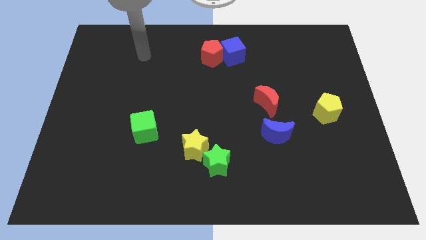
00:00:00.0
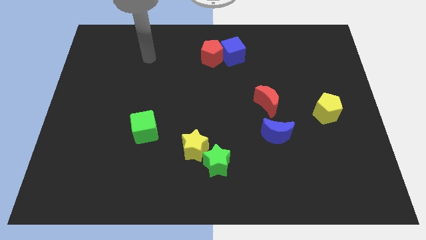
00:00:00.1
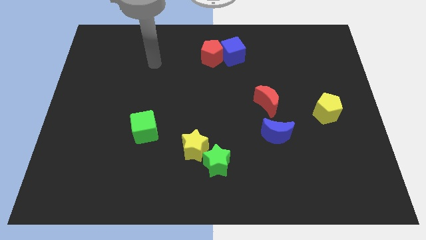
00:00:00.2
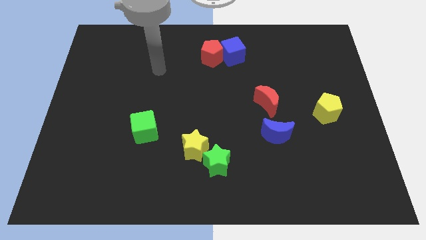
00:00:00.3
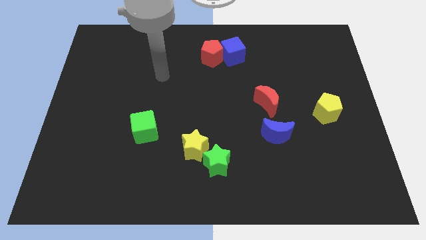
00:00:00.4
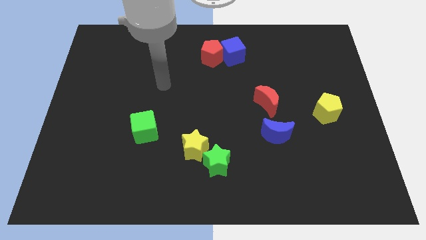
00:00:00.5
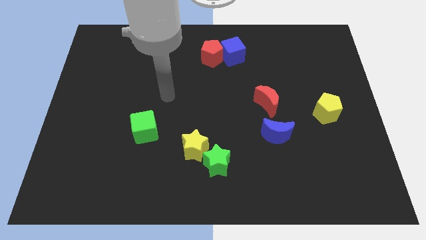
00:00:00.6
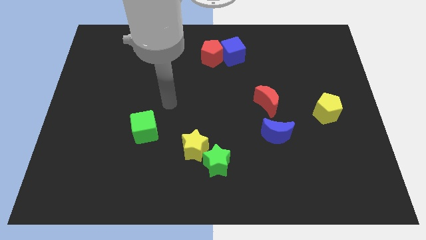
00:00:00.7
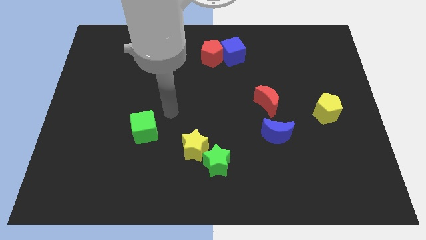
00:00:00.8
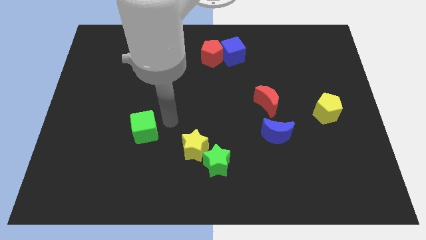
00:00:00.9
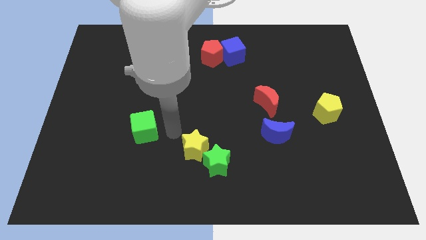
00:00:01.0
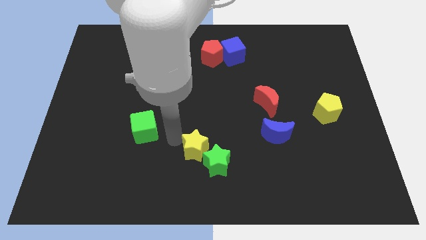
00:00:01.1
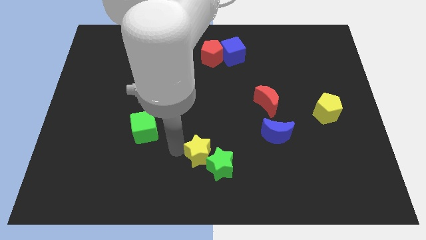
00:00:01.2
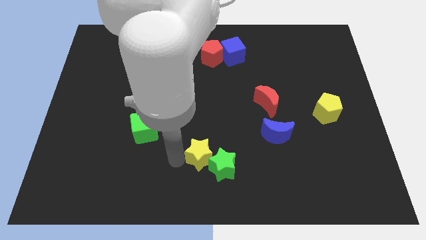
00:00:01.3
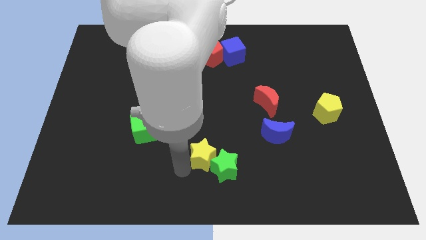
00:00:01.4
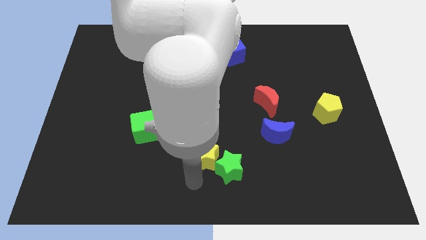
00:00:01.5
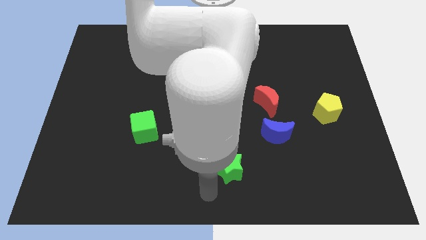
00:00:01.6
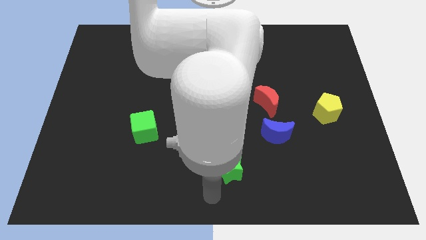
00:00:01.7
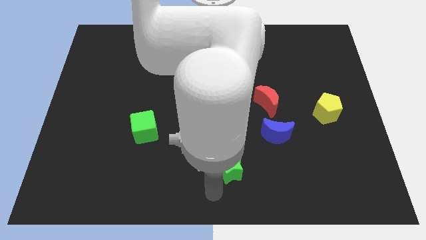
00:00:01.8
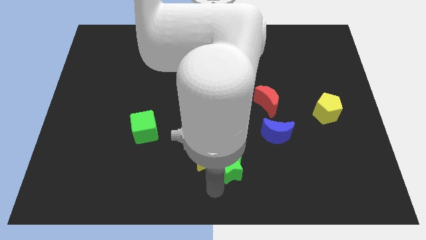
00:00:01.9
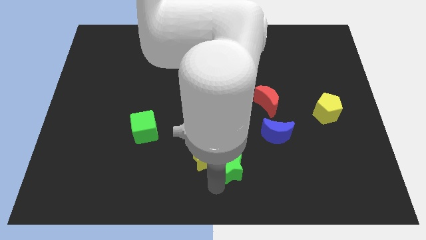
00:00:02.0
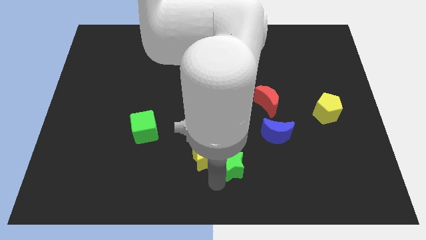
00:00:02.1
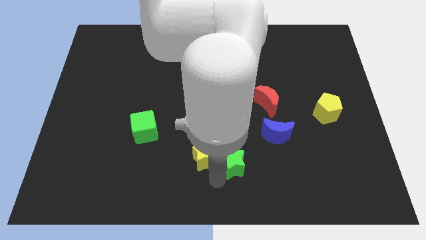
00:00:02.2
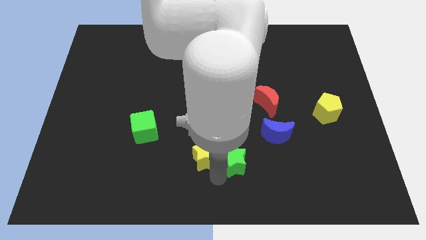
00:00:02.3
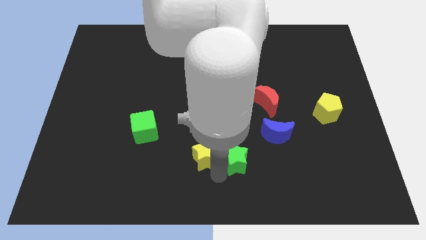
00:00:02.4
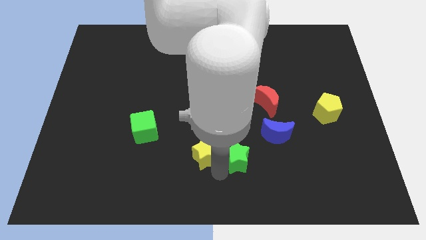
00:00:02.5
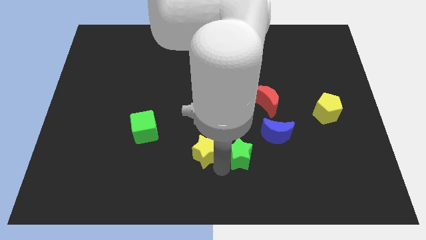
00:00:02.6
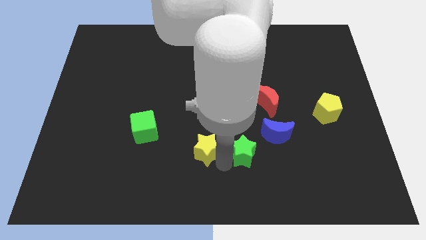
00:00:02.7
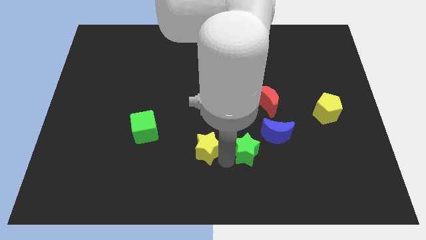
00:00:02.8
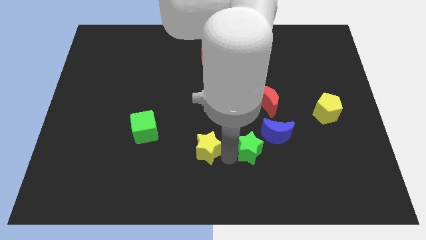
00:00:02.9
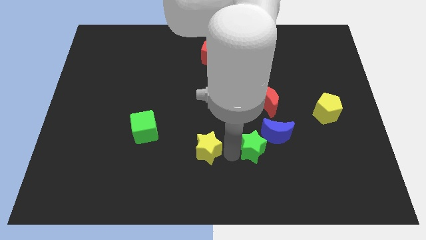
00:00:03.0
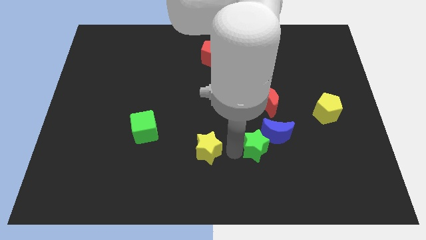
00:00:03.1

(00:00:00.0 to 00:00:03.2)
slide the green star to the blue moon

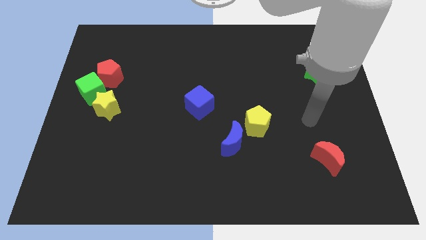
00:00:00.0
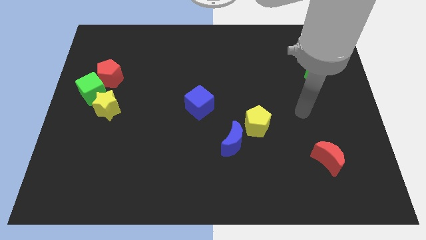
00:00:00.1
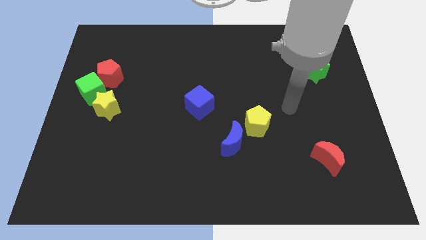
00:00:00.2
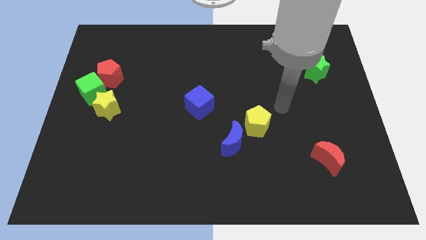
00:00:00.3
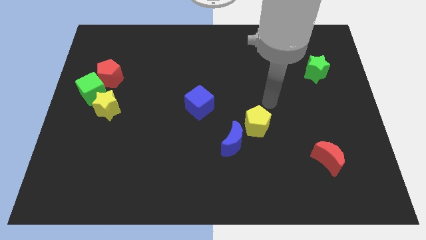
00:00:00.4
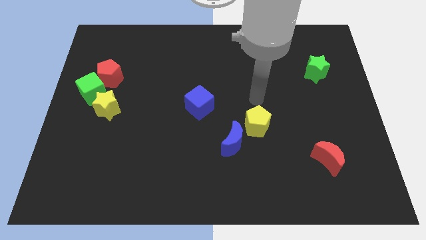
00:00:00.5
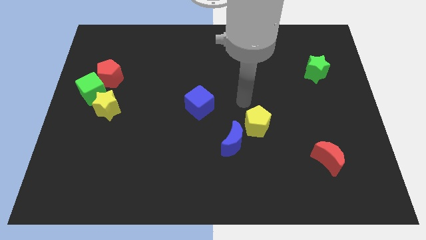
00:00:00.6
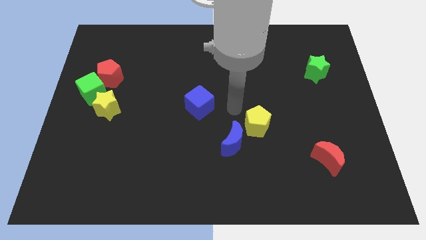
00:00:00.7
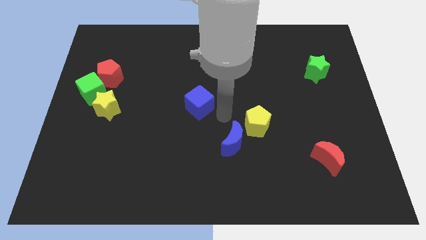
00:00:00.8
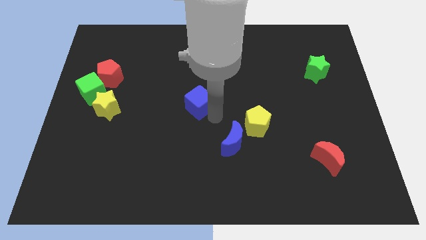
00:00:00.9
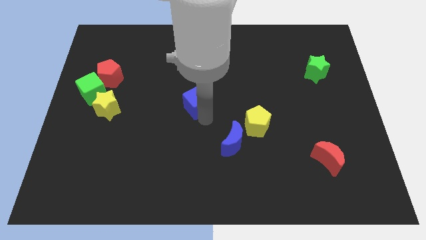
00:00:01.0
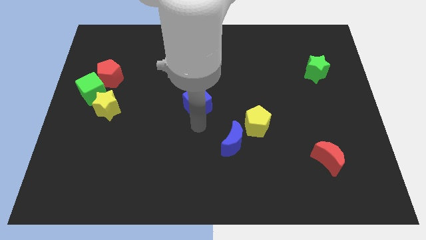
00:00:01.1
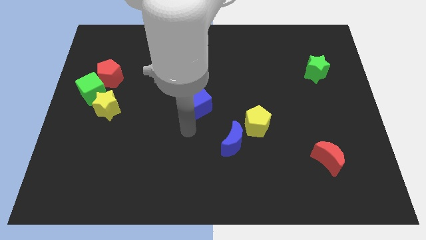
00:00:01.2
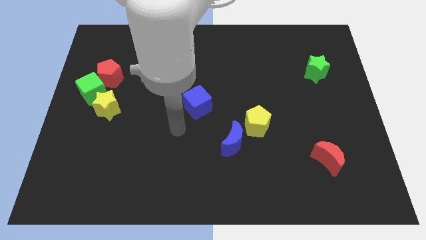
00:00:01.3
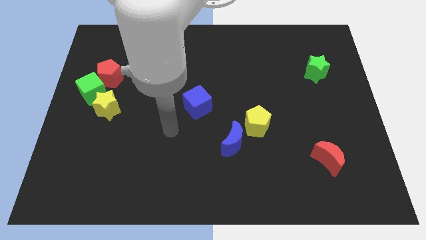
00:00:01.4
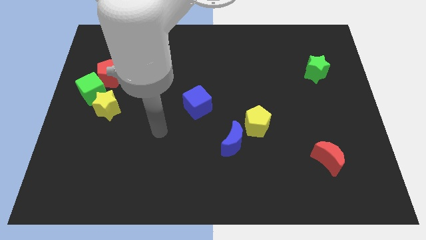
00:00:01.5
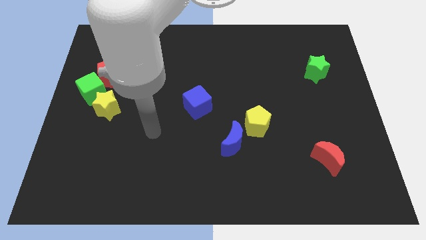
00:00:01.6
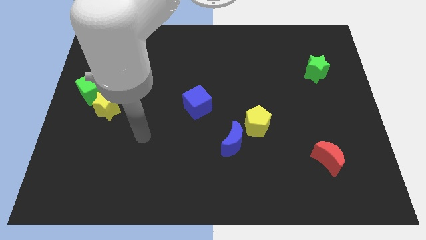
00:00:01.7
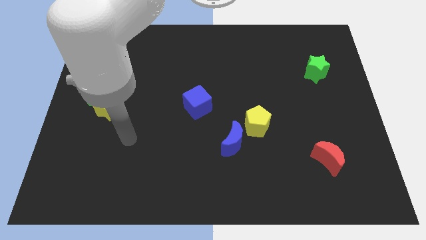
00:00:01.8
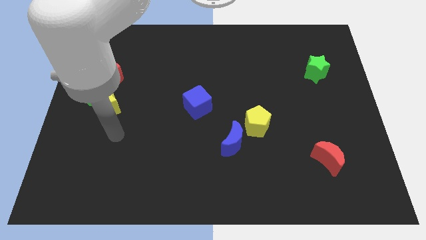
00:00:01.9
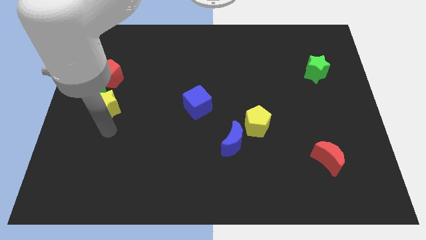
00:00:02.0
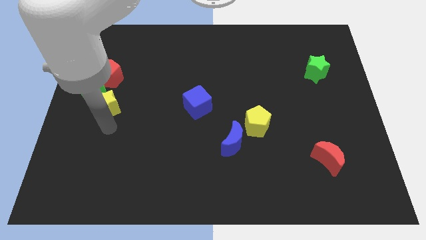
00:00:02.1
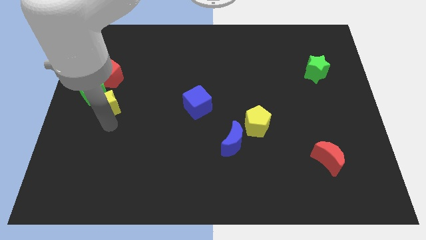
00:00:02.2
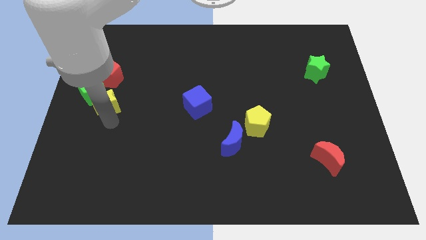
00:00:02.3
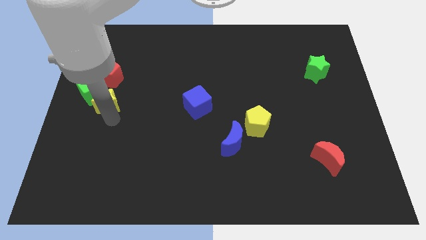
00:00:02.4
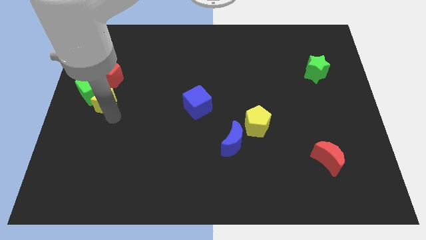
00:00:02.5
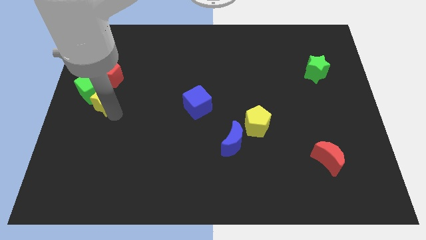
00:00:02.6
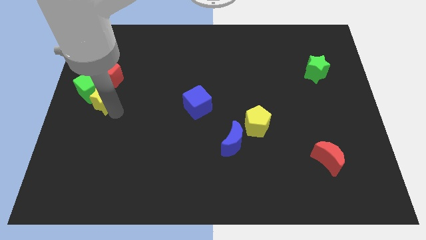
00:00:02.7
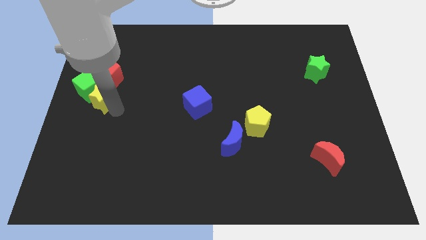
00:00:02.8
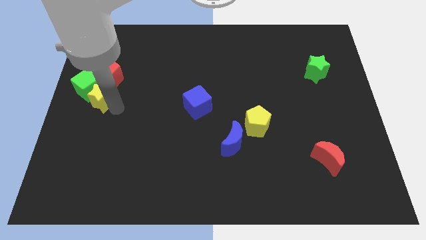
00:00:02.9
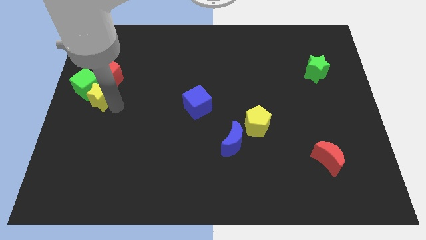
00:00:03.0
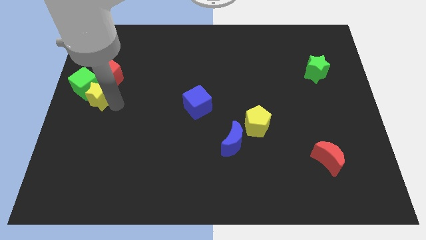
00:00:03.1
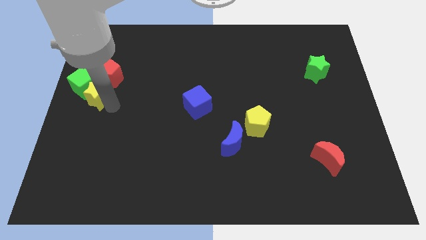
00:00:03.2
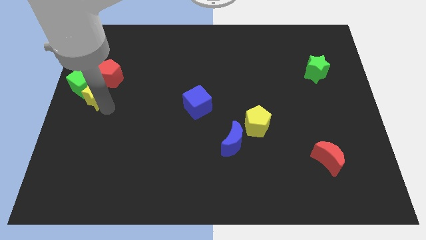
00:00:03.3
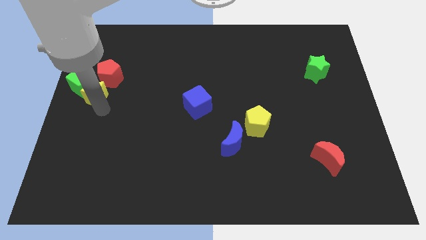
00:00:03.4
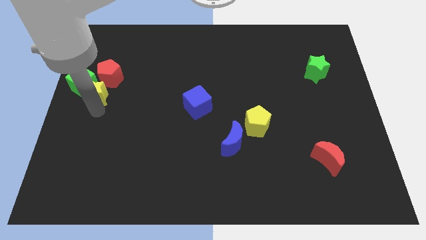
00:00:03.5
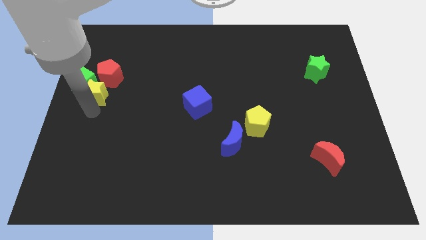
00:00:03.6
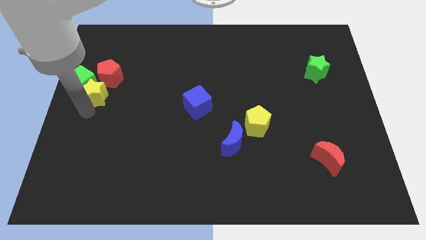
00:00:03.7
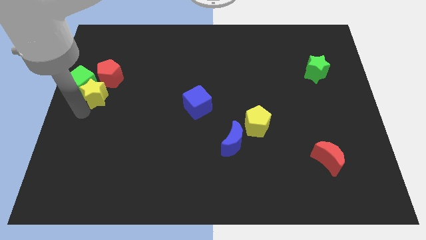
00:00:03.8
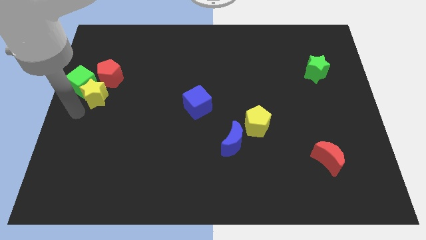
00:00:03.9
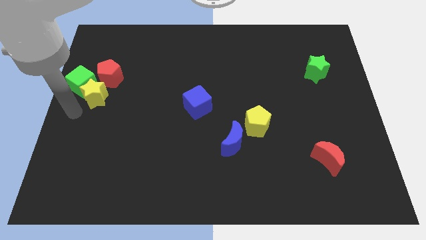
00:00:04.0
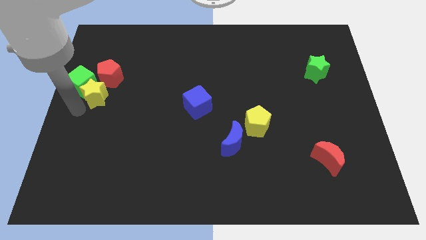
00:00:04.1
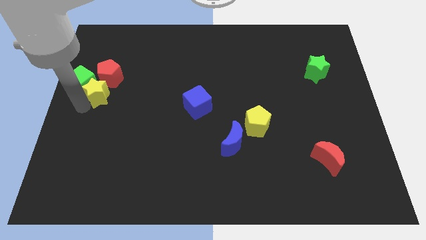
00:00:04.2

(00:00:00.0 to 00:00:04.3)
push the yellow star towards the red pentagon

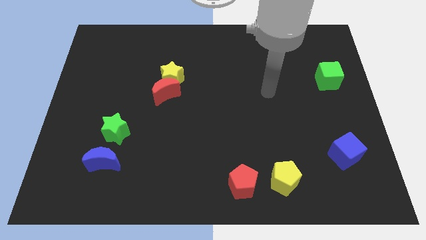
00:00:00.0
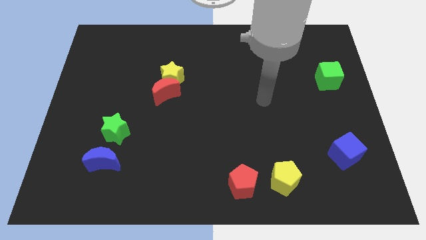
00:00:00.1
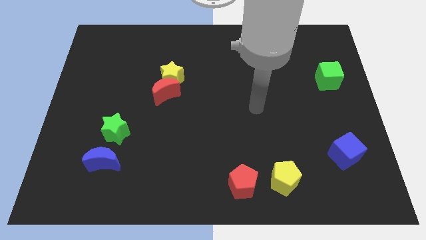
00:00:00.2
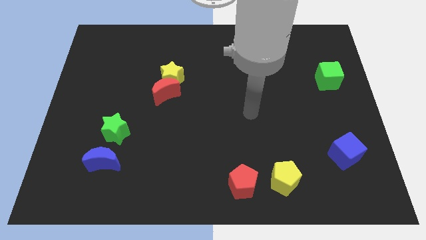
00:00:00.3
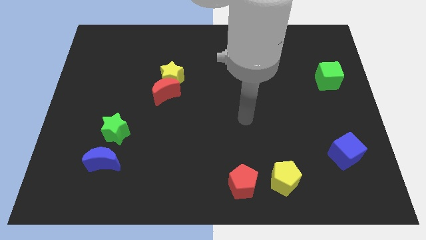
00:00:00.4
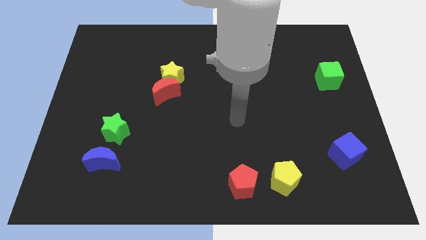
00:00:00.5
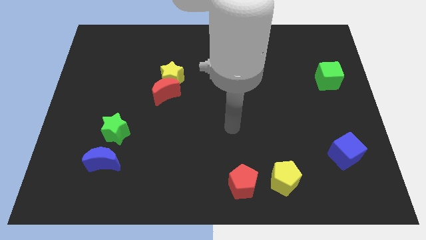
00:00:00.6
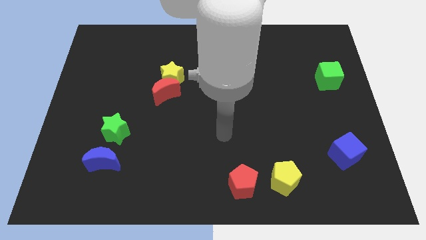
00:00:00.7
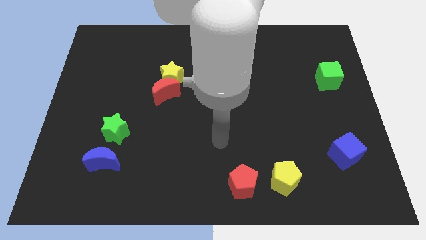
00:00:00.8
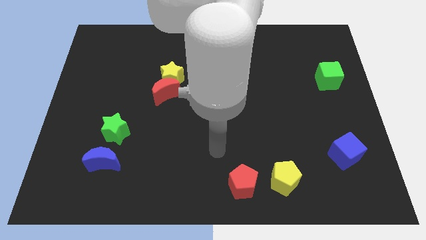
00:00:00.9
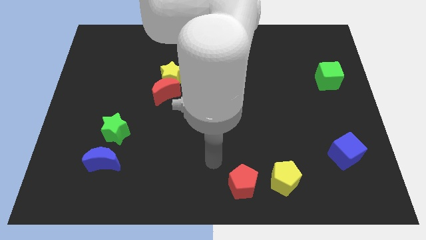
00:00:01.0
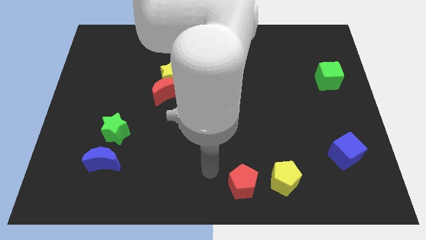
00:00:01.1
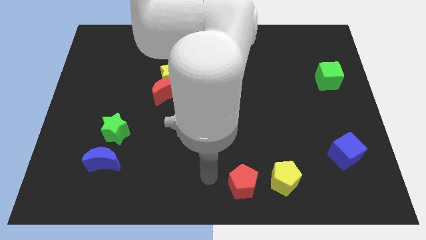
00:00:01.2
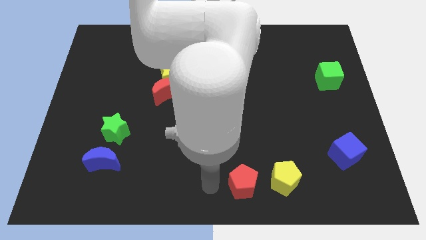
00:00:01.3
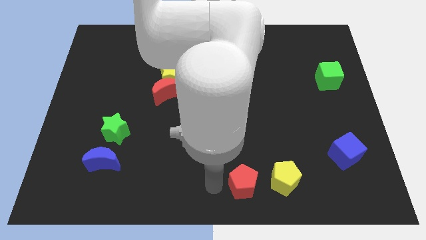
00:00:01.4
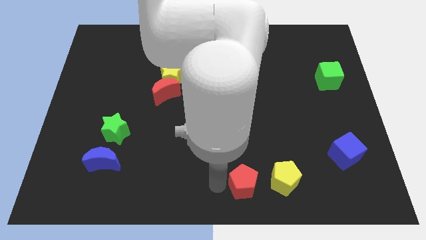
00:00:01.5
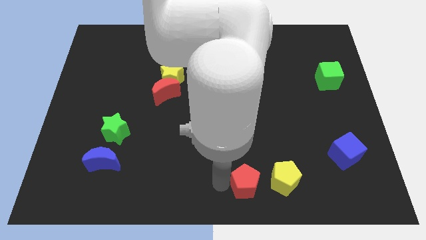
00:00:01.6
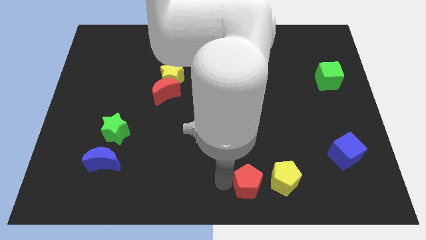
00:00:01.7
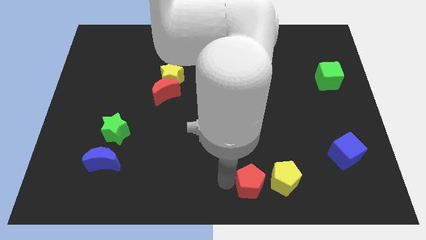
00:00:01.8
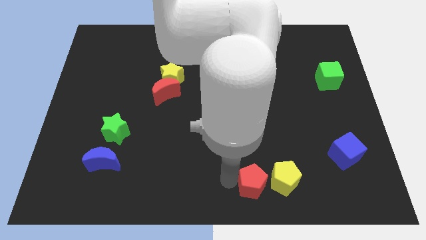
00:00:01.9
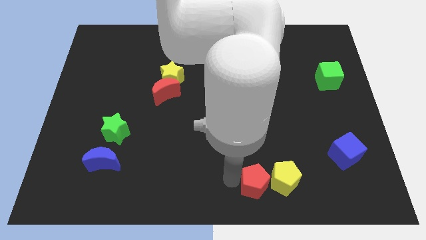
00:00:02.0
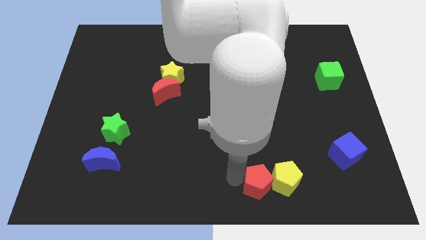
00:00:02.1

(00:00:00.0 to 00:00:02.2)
move the red pentagon next to the yellow pentagon
